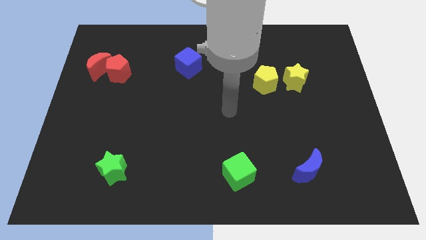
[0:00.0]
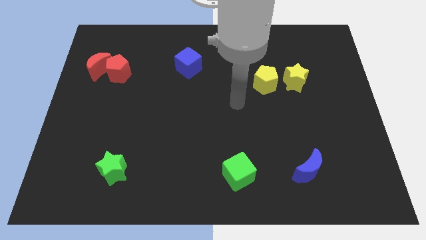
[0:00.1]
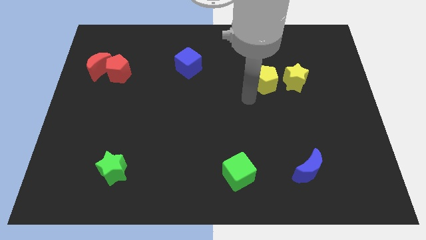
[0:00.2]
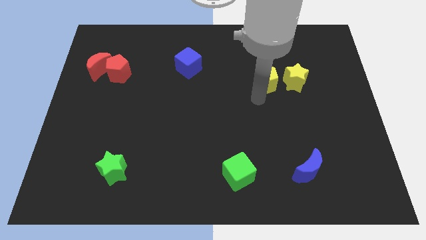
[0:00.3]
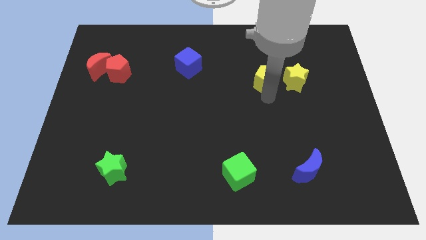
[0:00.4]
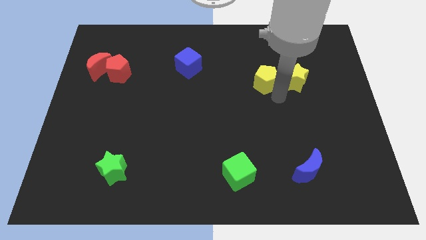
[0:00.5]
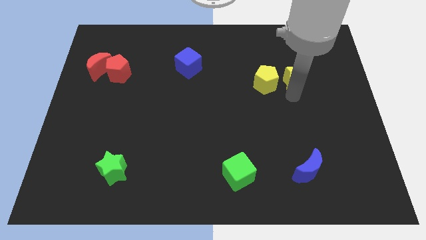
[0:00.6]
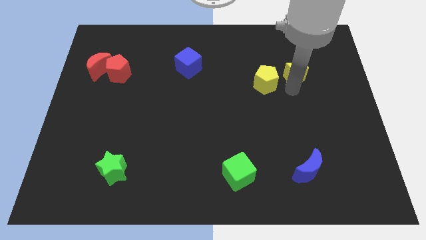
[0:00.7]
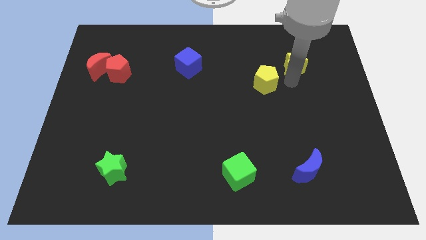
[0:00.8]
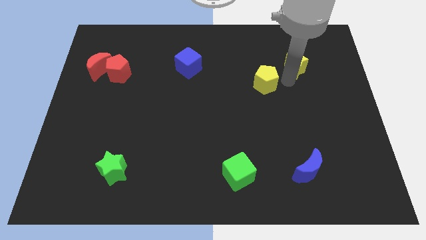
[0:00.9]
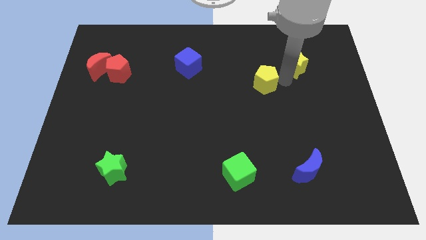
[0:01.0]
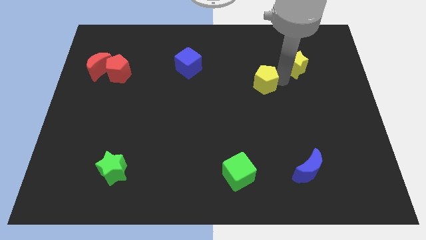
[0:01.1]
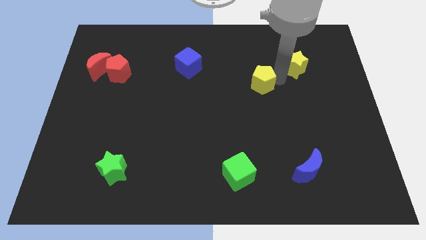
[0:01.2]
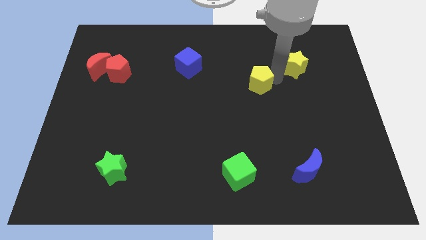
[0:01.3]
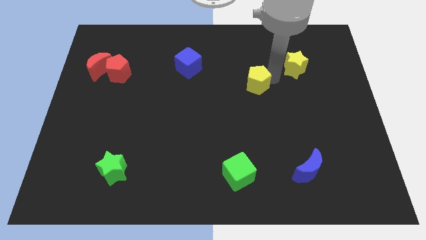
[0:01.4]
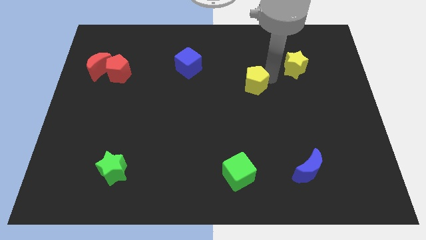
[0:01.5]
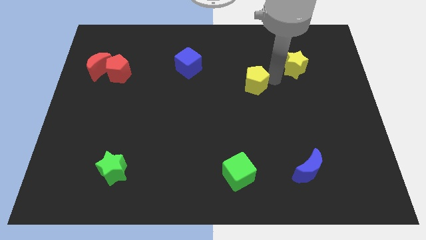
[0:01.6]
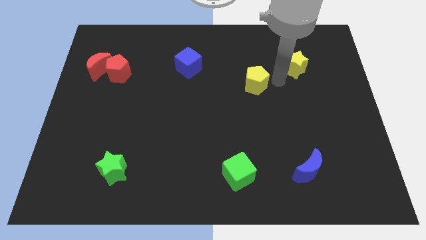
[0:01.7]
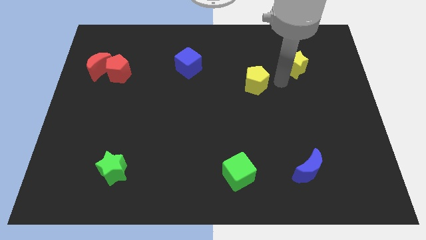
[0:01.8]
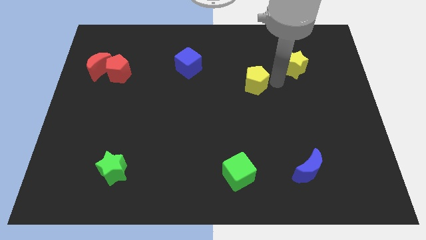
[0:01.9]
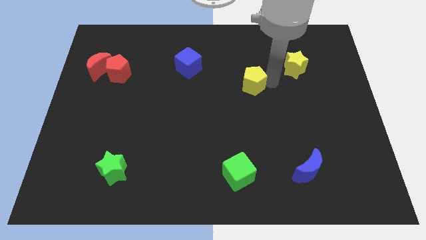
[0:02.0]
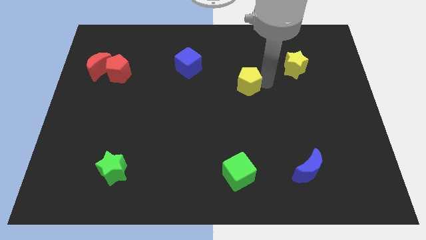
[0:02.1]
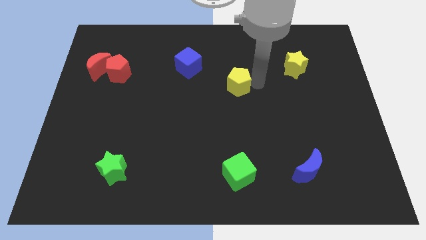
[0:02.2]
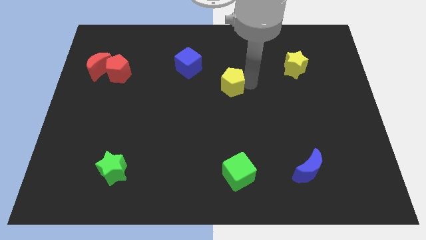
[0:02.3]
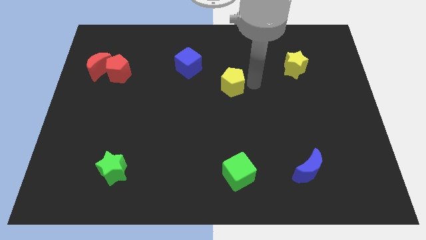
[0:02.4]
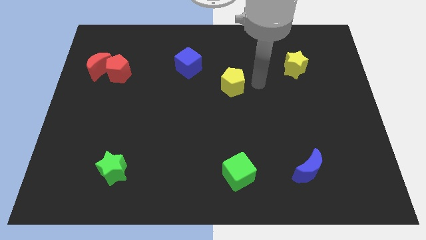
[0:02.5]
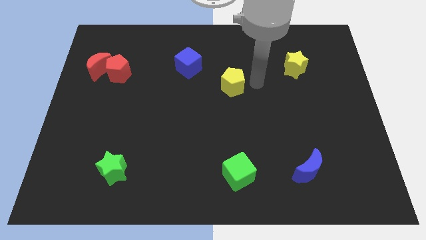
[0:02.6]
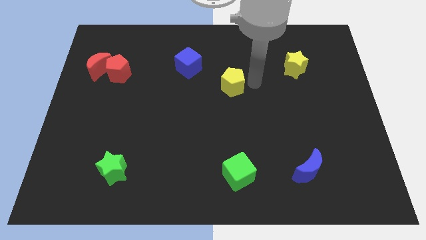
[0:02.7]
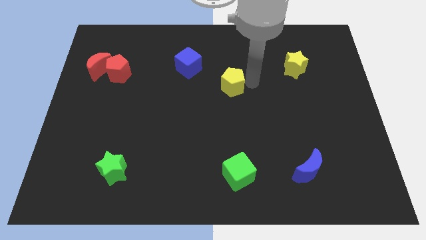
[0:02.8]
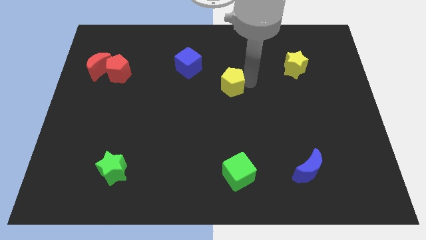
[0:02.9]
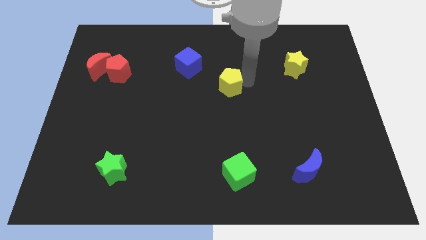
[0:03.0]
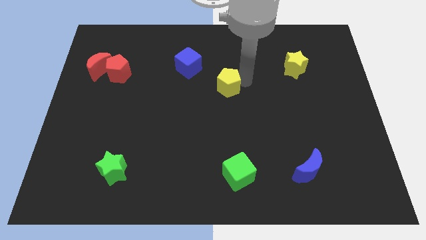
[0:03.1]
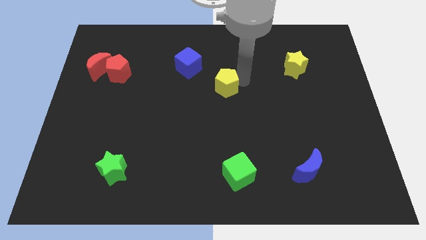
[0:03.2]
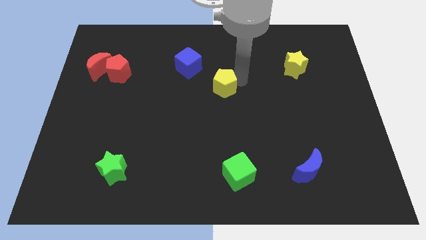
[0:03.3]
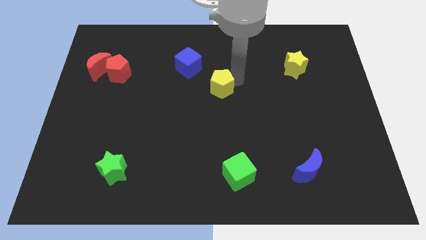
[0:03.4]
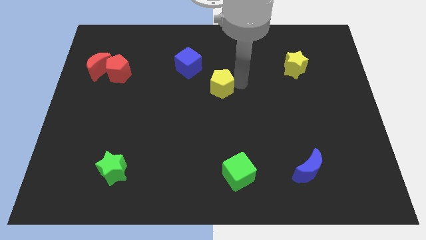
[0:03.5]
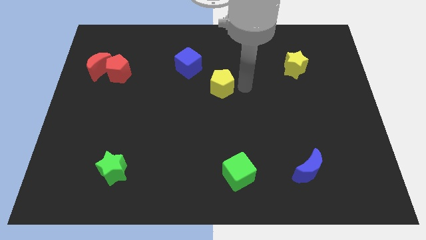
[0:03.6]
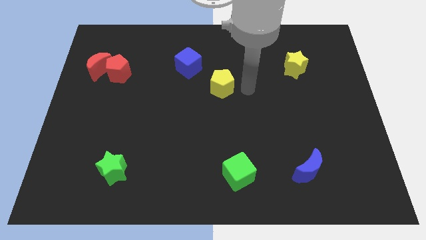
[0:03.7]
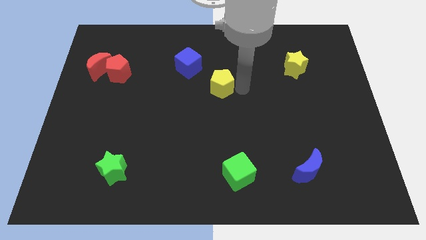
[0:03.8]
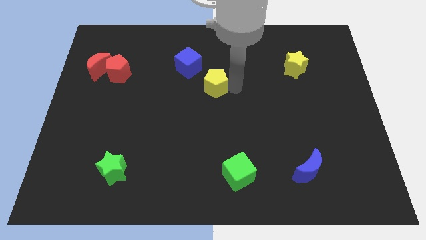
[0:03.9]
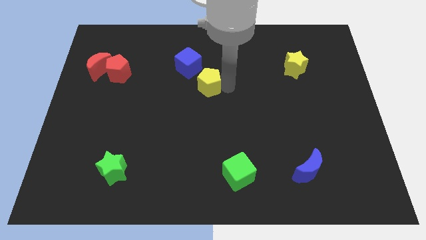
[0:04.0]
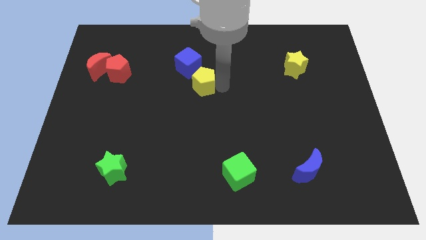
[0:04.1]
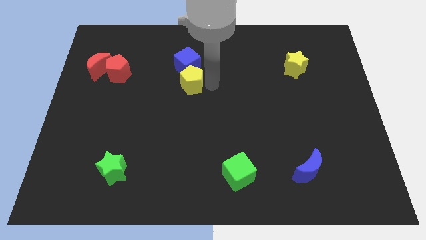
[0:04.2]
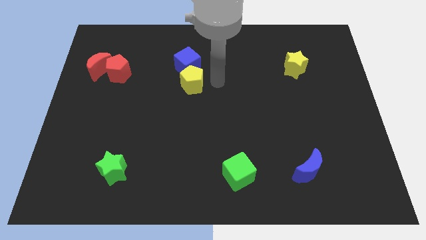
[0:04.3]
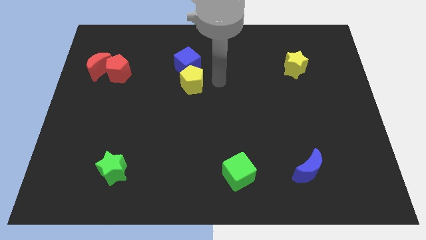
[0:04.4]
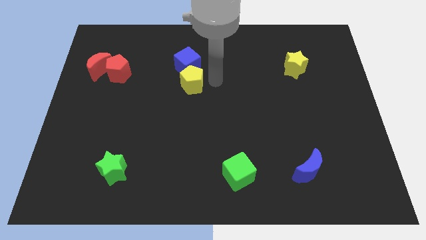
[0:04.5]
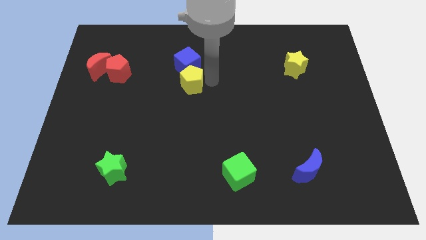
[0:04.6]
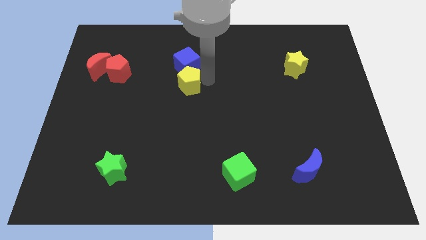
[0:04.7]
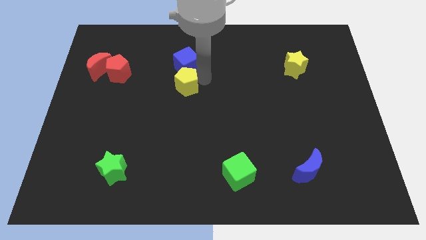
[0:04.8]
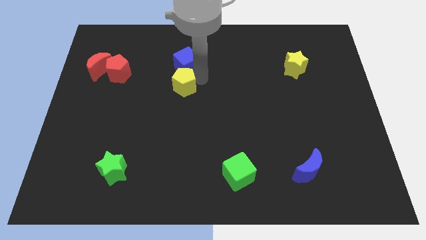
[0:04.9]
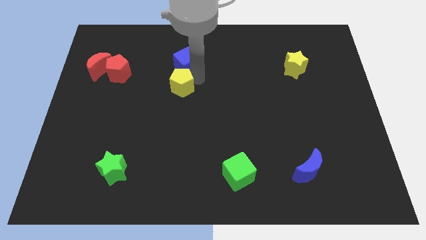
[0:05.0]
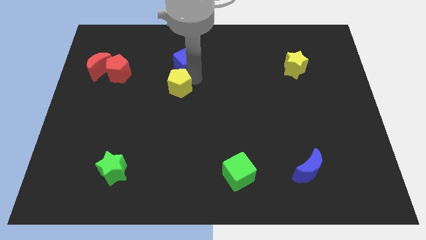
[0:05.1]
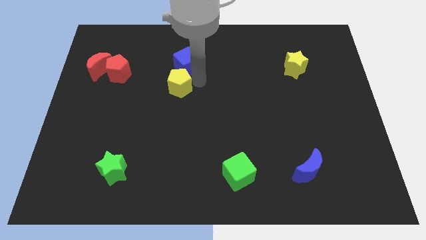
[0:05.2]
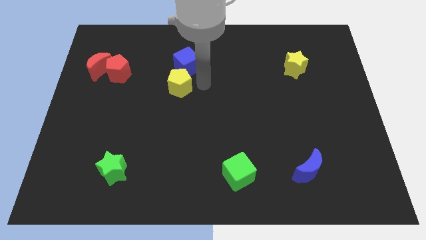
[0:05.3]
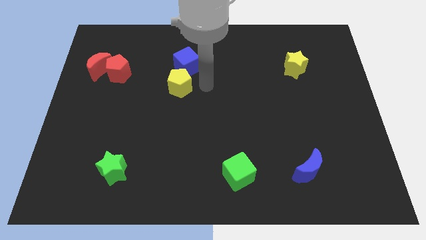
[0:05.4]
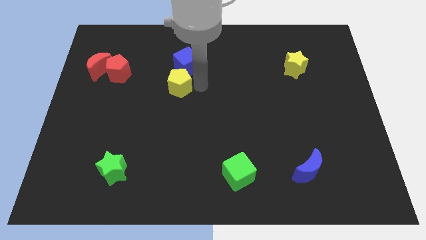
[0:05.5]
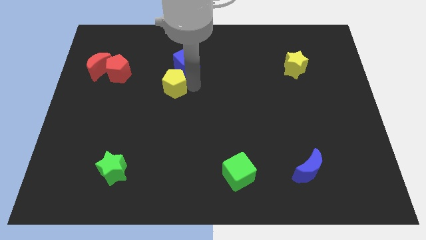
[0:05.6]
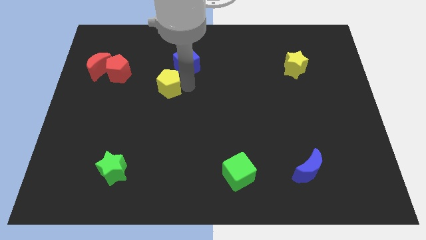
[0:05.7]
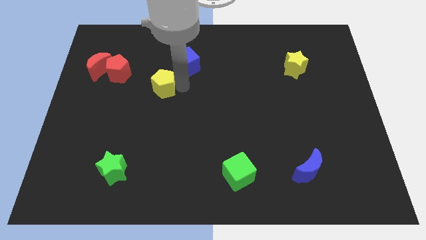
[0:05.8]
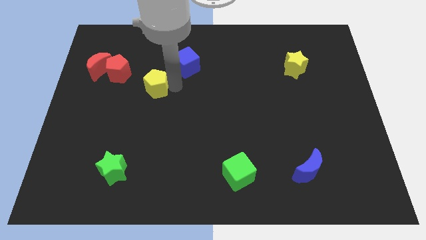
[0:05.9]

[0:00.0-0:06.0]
slide the yellow pentagon to the bottom right side of the red pentagon

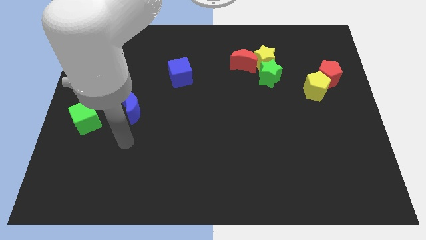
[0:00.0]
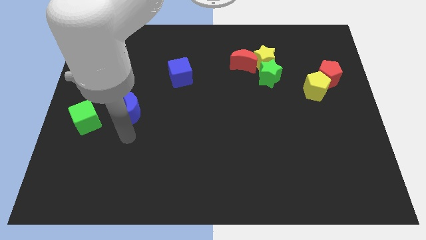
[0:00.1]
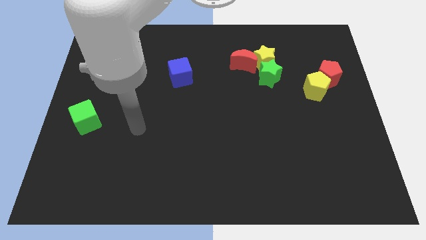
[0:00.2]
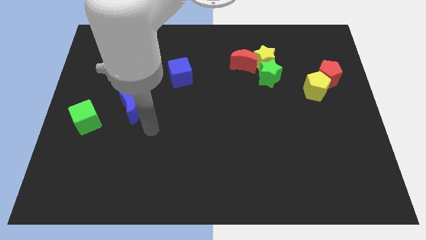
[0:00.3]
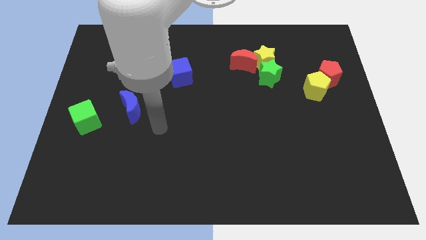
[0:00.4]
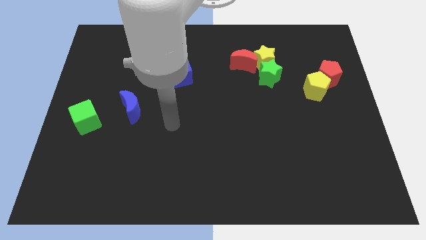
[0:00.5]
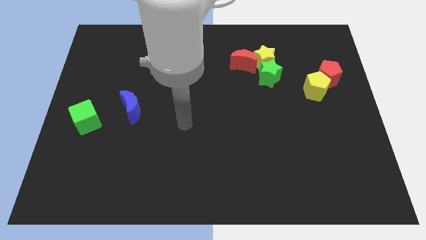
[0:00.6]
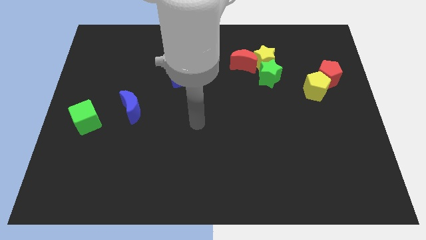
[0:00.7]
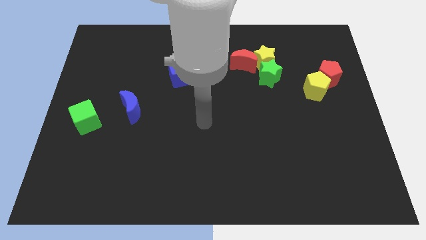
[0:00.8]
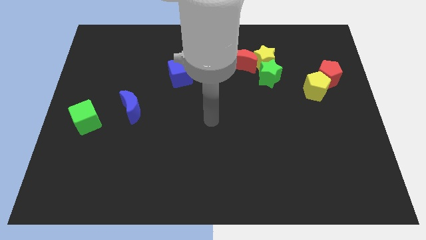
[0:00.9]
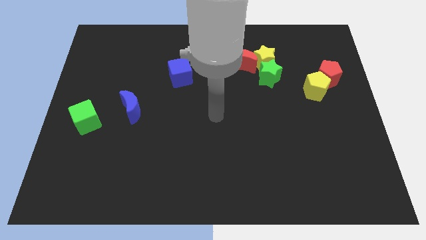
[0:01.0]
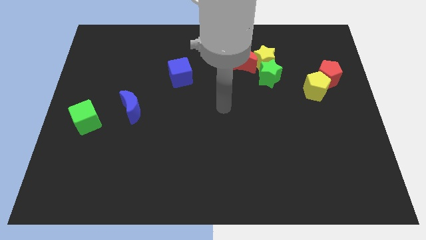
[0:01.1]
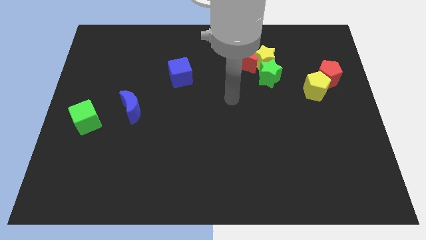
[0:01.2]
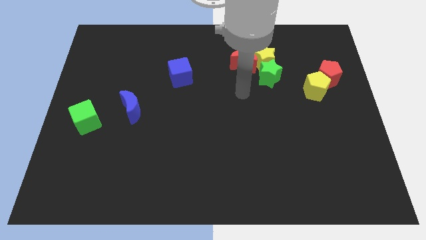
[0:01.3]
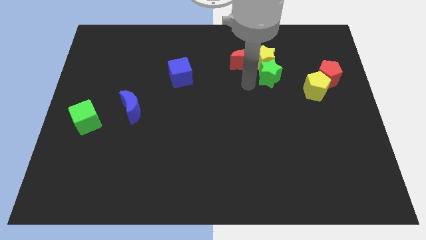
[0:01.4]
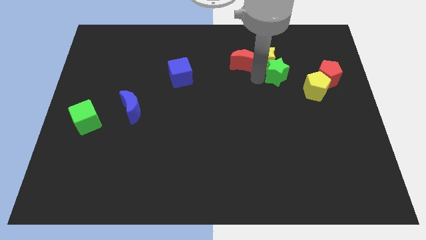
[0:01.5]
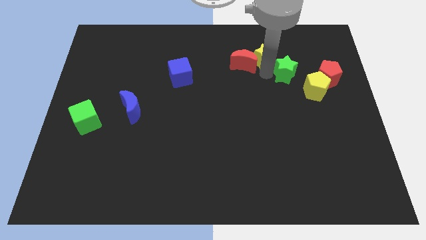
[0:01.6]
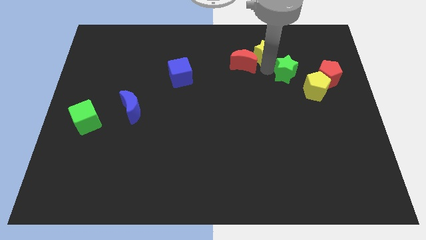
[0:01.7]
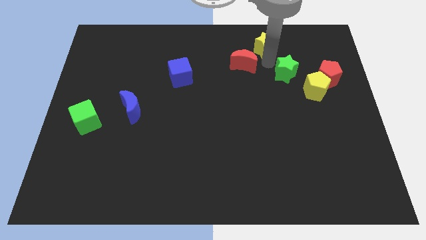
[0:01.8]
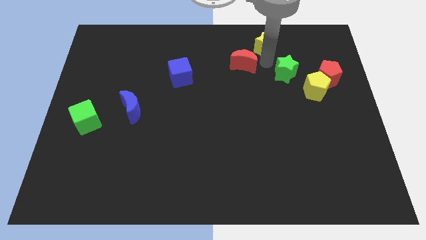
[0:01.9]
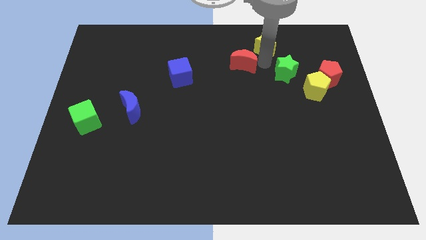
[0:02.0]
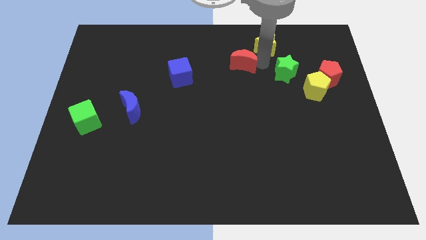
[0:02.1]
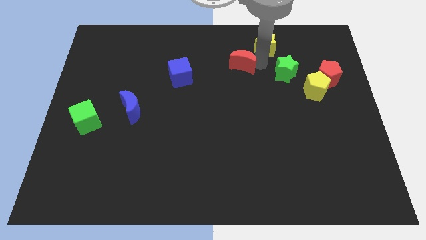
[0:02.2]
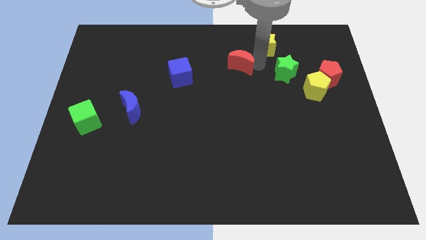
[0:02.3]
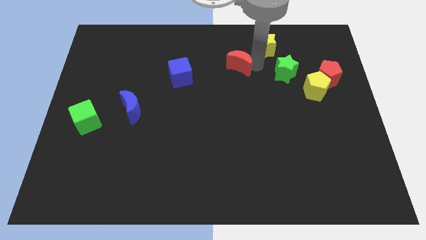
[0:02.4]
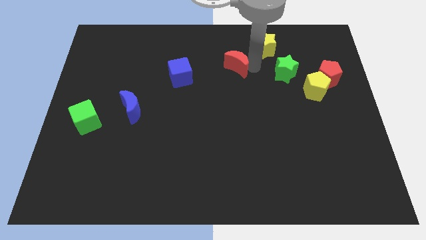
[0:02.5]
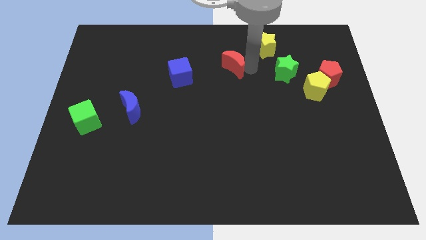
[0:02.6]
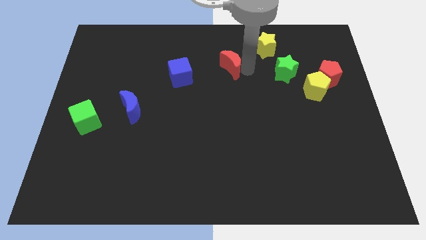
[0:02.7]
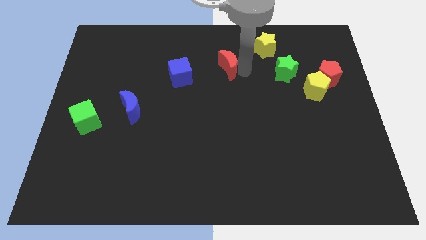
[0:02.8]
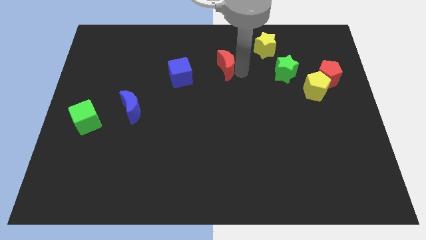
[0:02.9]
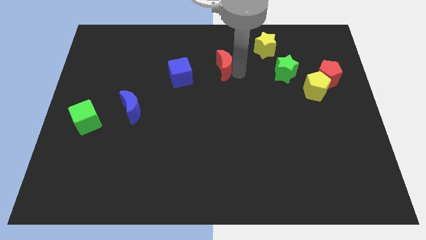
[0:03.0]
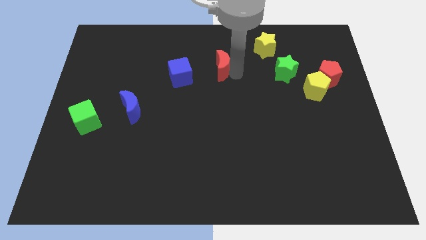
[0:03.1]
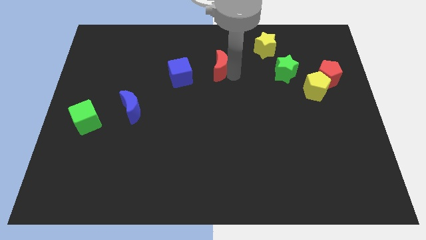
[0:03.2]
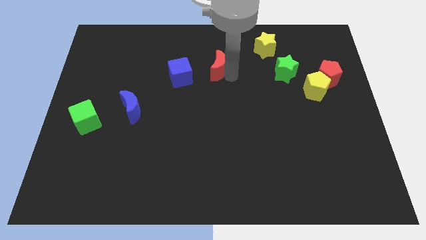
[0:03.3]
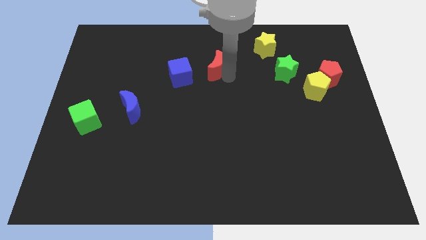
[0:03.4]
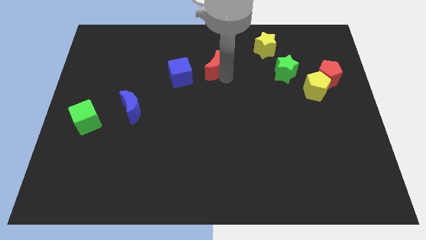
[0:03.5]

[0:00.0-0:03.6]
put the red moon to the top right side of the blue cube
